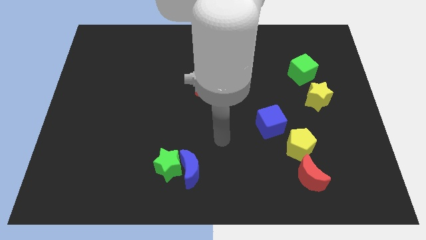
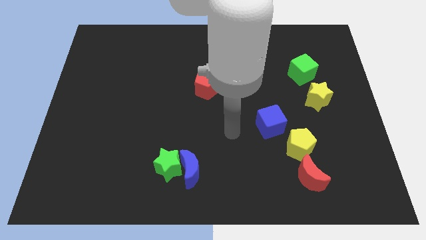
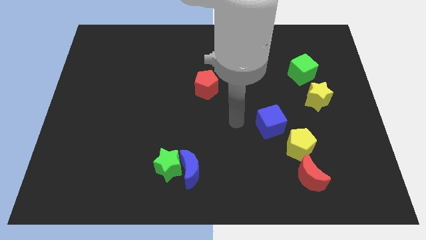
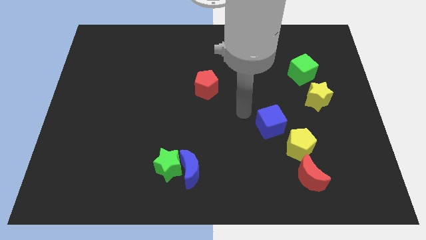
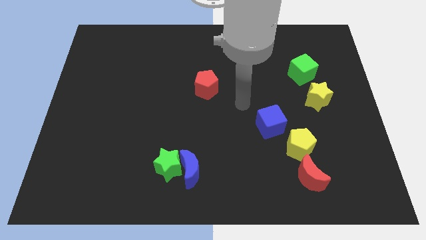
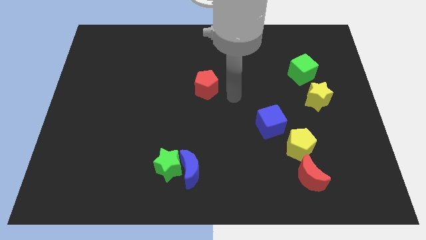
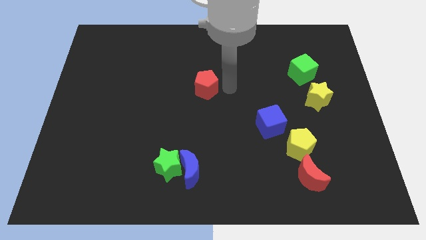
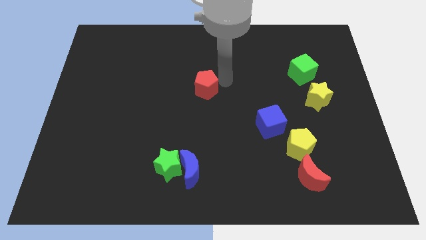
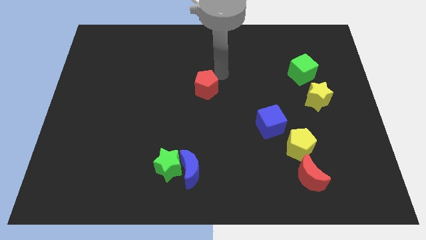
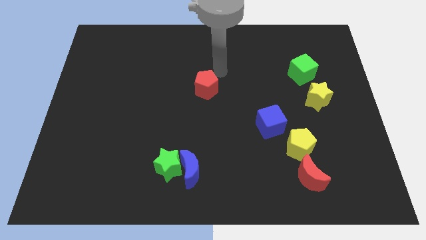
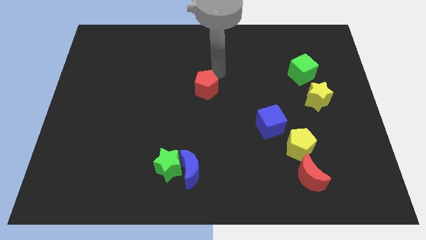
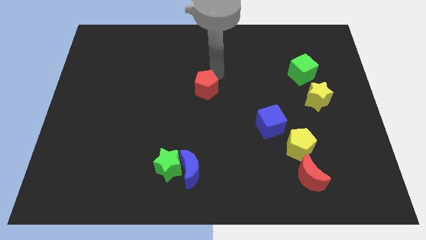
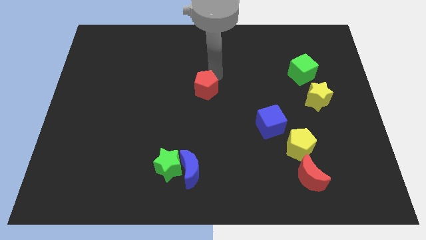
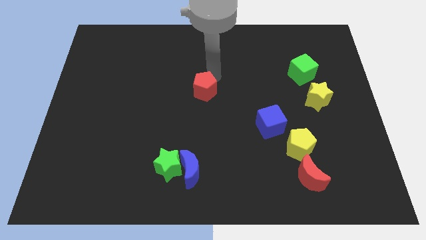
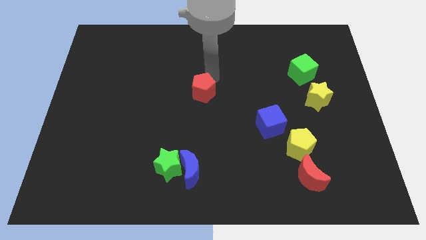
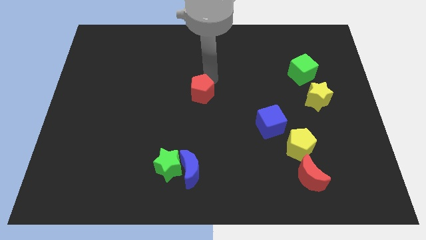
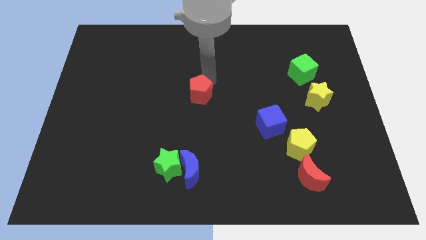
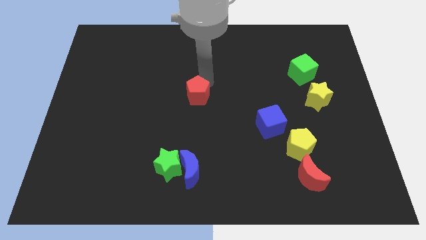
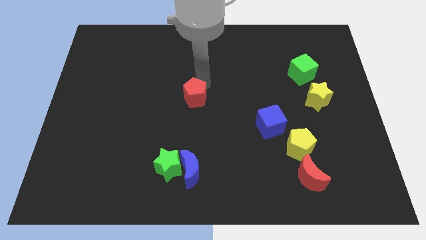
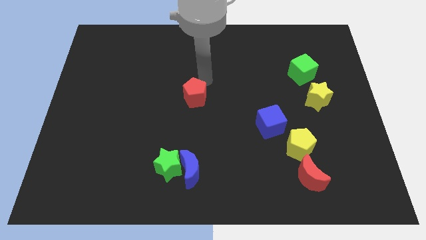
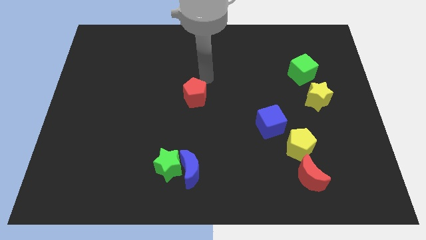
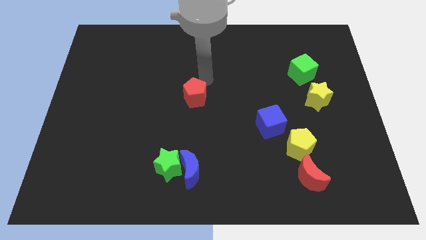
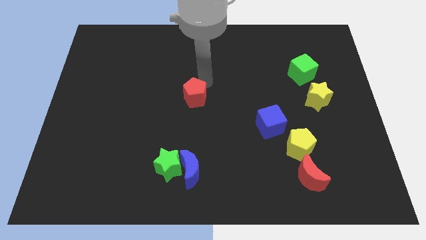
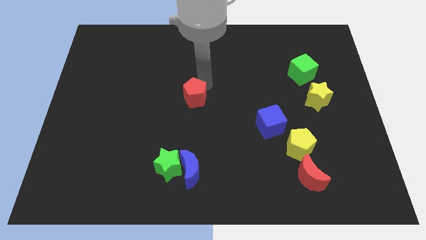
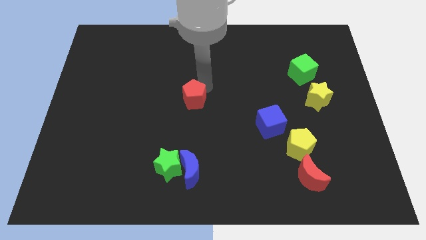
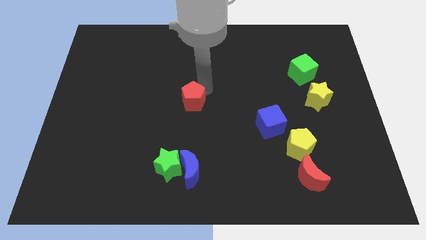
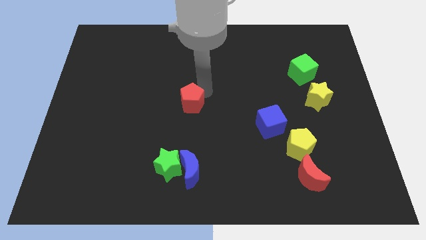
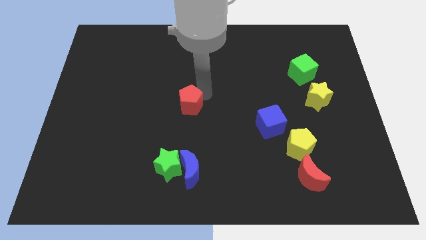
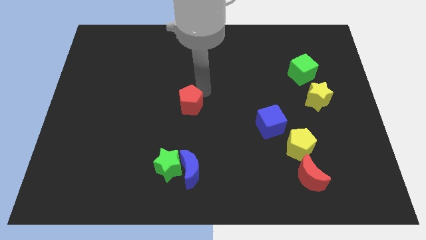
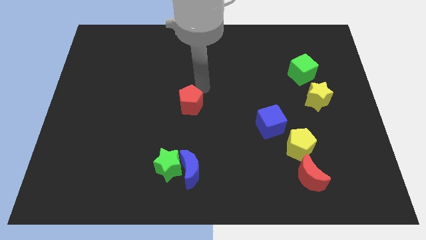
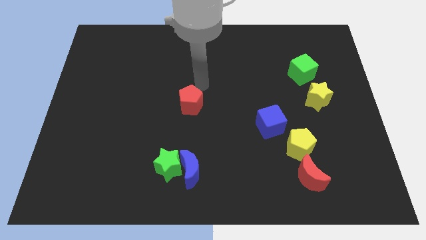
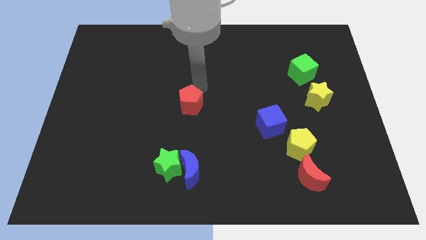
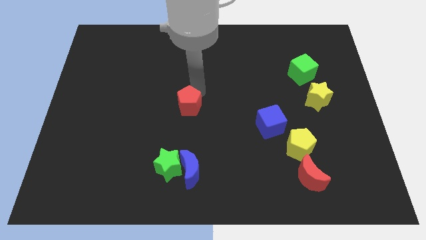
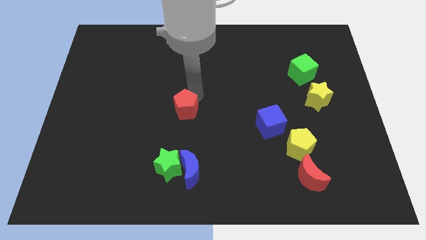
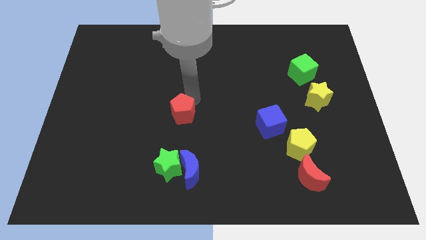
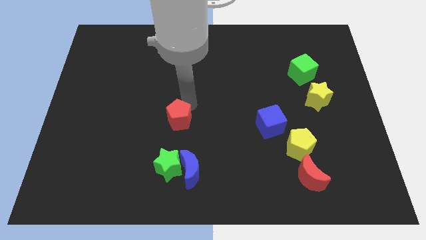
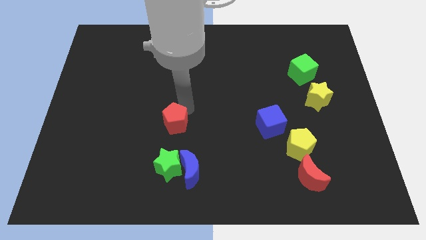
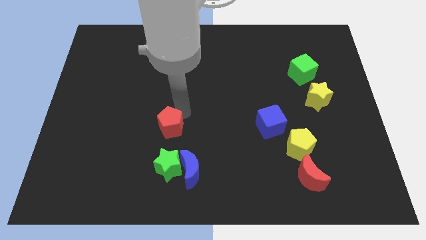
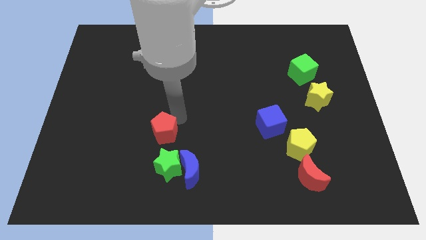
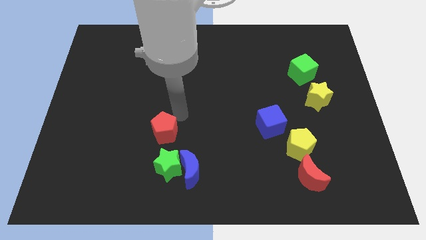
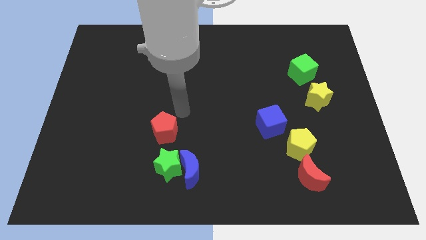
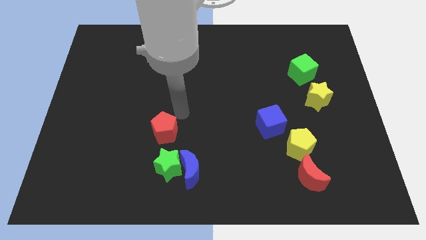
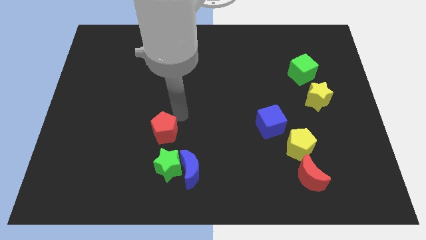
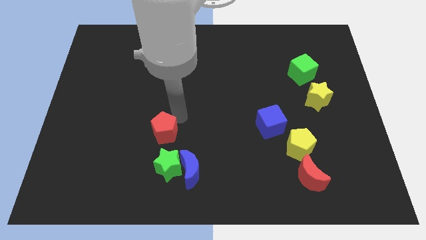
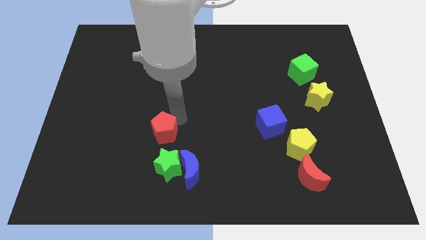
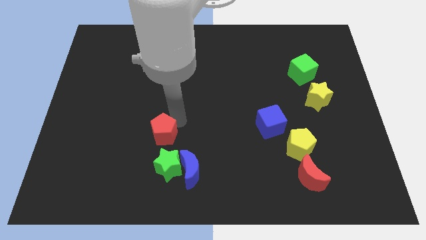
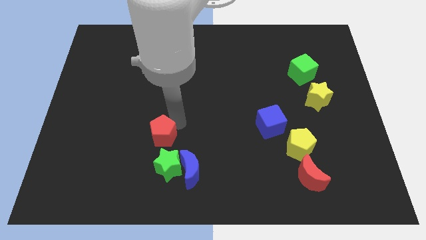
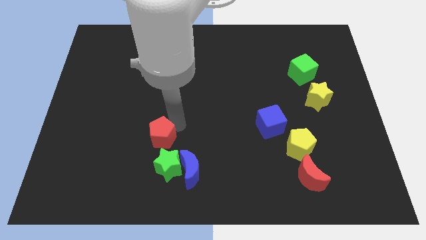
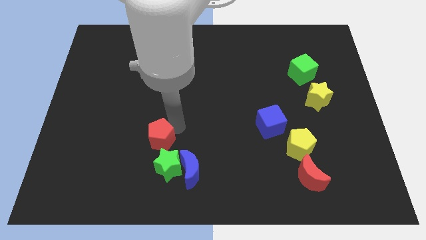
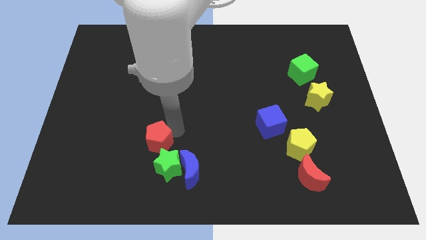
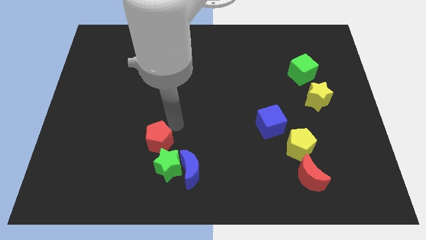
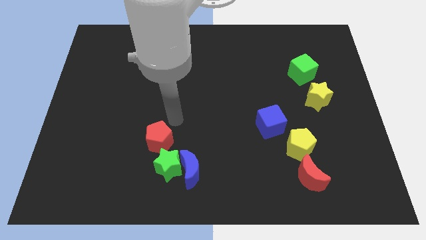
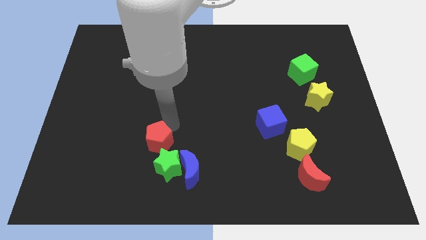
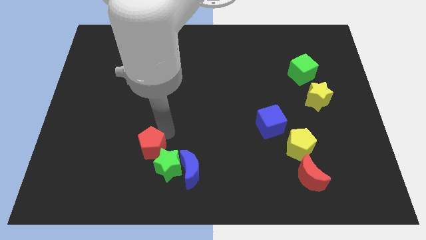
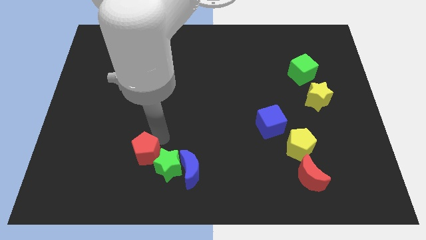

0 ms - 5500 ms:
push the red pentagon to the left side of the blue moon

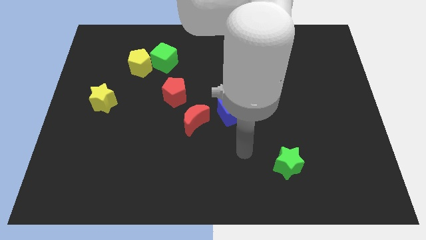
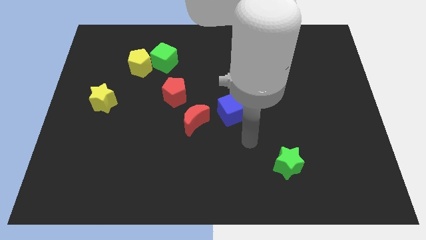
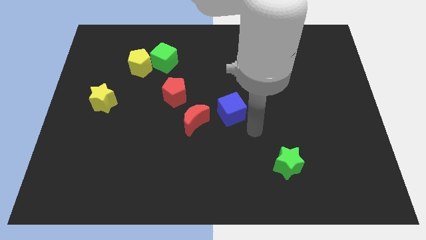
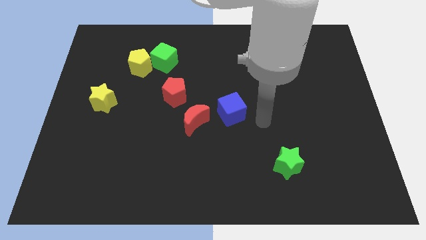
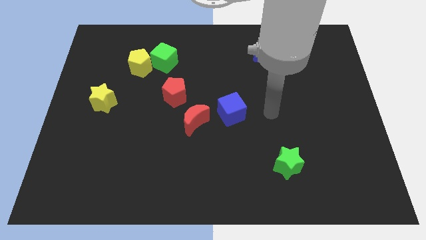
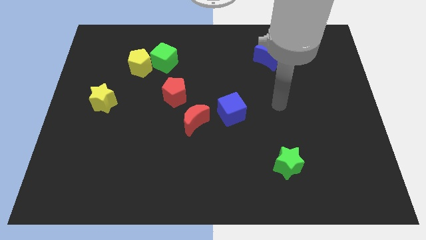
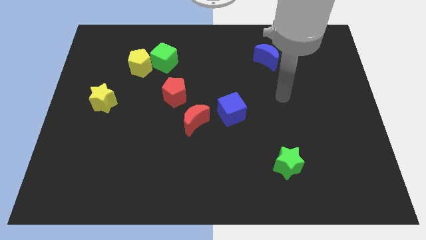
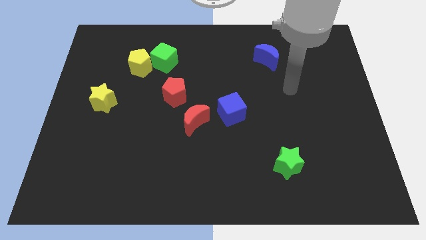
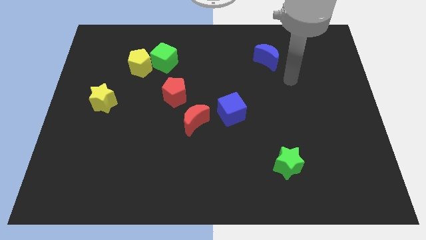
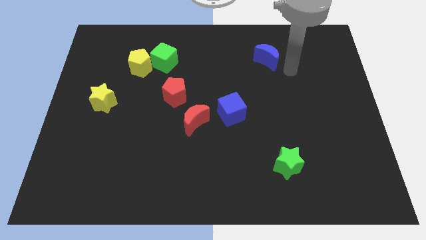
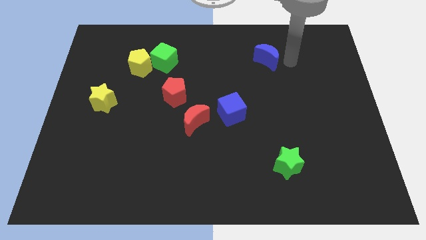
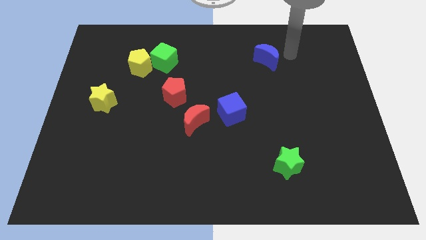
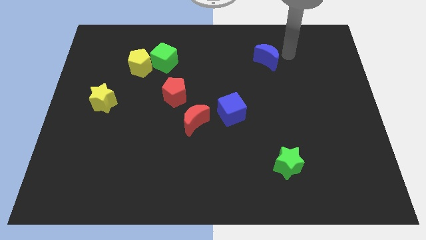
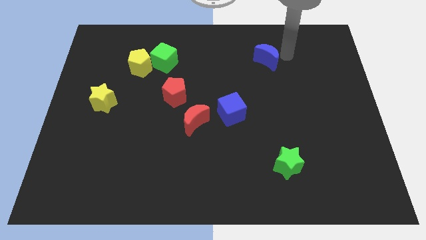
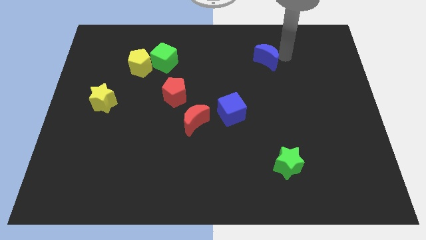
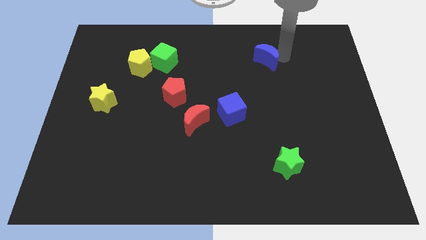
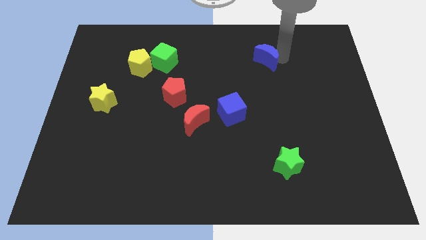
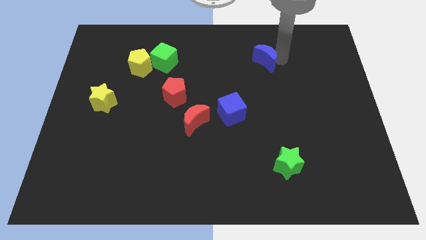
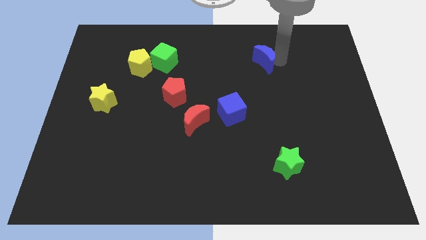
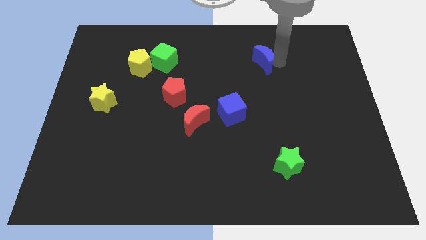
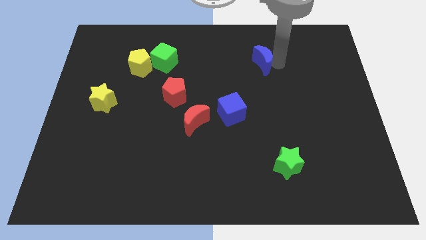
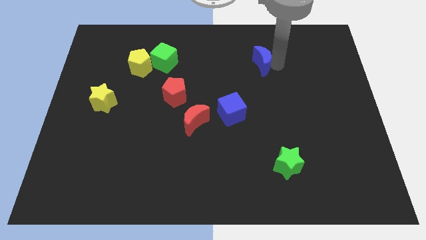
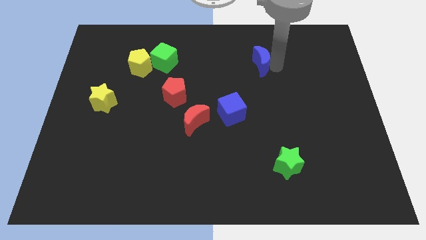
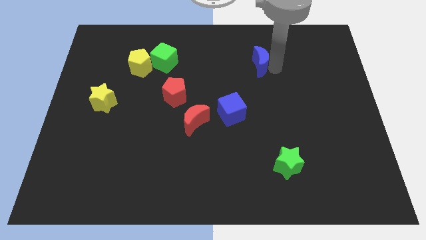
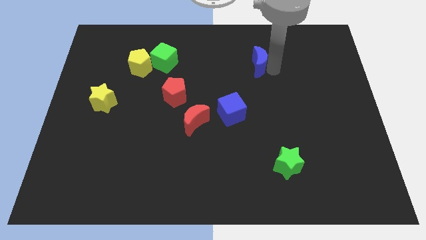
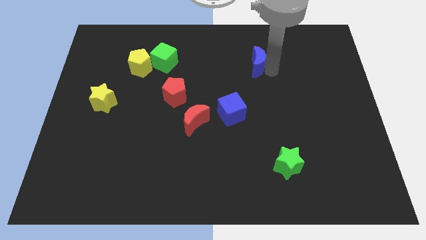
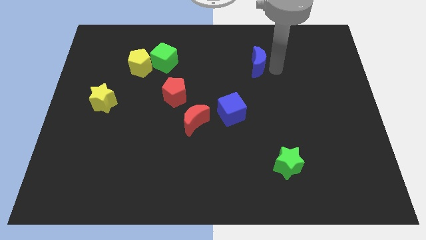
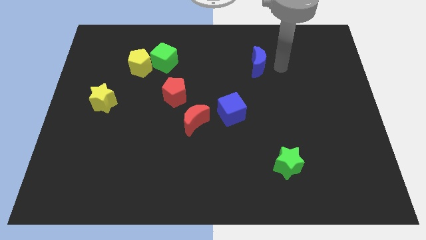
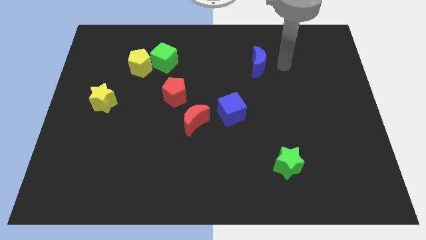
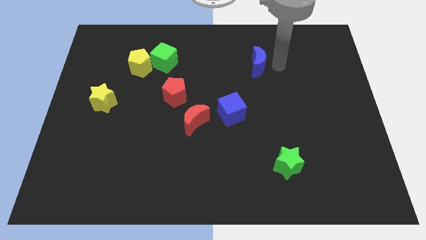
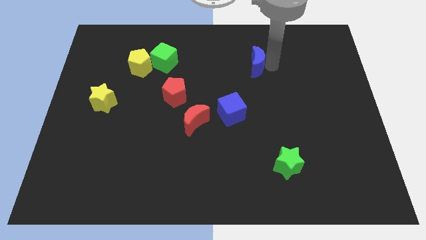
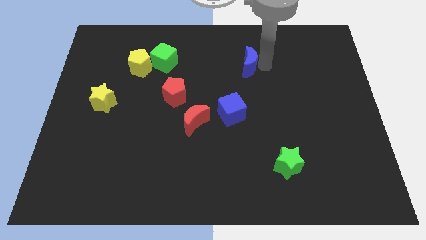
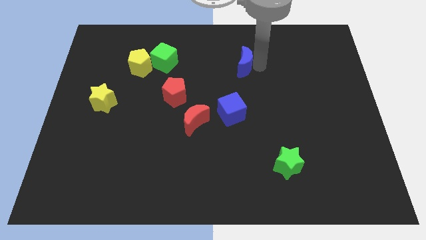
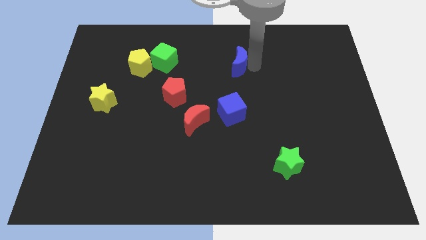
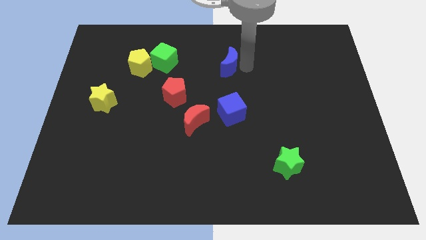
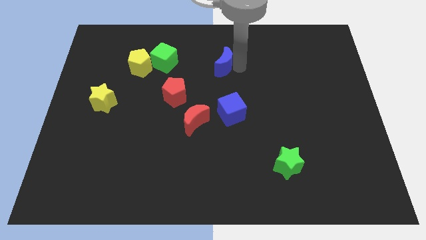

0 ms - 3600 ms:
push the blue moon right of the green cube
